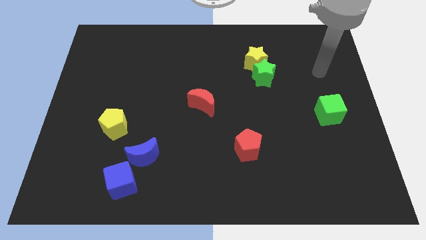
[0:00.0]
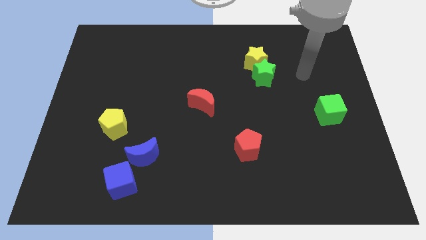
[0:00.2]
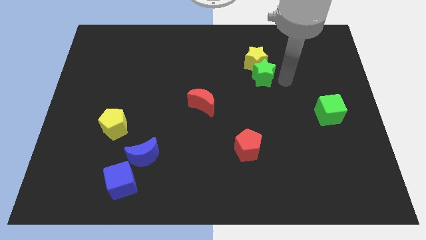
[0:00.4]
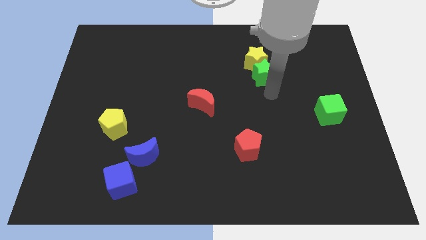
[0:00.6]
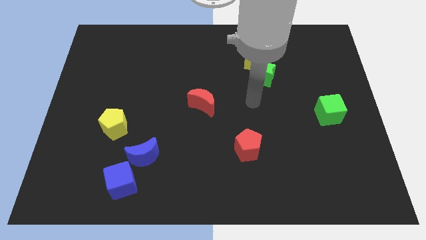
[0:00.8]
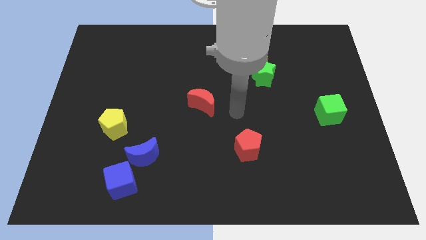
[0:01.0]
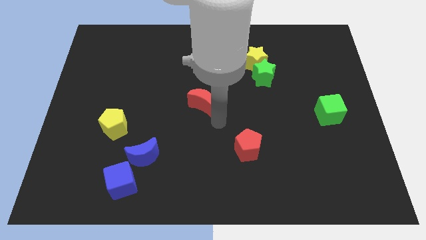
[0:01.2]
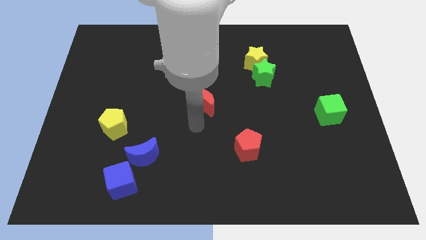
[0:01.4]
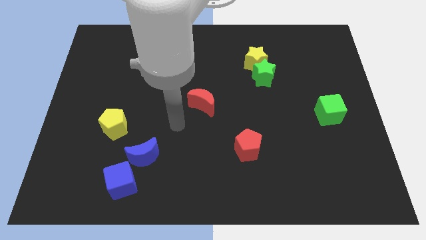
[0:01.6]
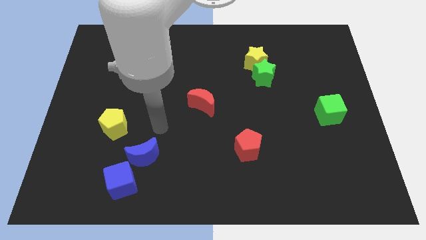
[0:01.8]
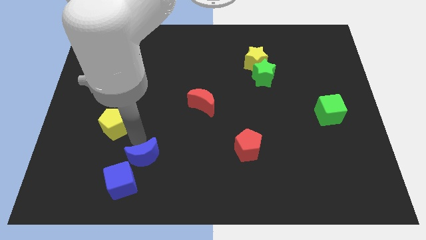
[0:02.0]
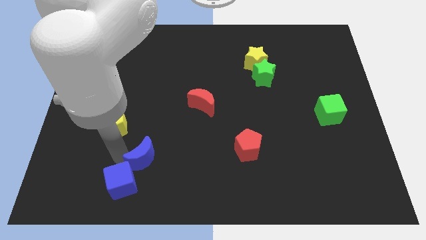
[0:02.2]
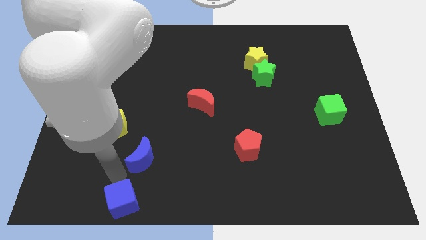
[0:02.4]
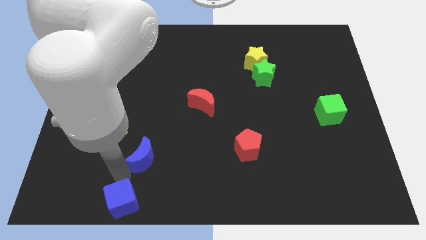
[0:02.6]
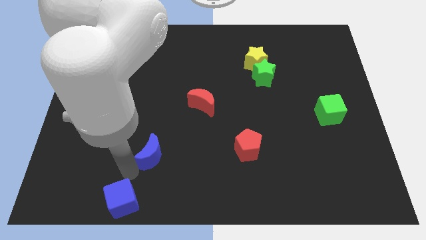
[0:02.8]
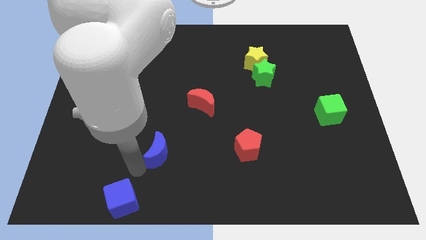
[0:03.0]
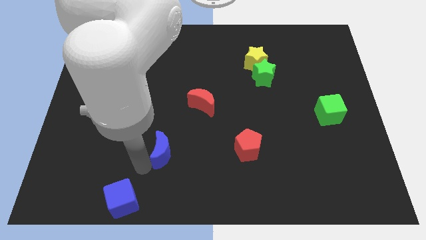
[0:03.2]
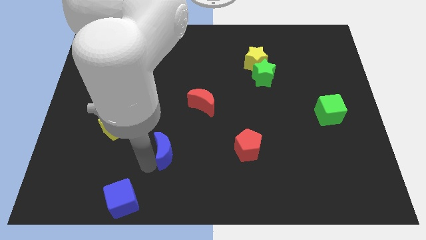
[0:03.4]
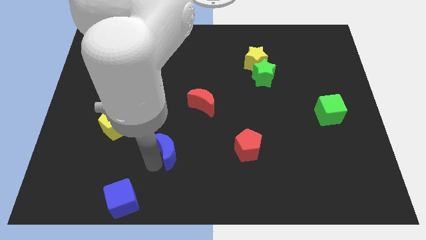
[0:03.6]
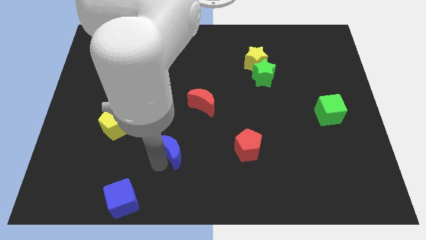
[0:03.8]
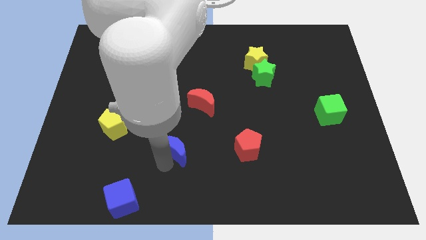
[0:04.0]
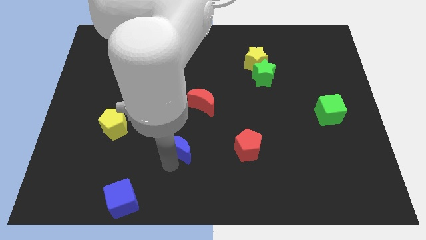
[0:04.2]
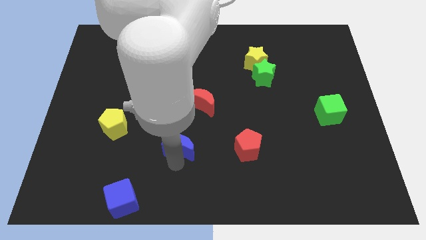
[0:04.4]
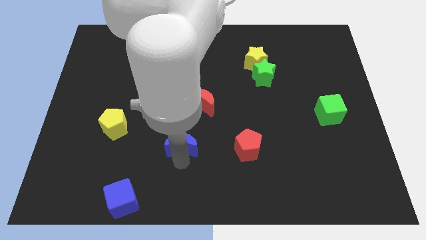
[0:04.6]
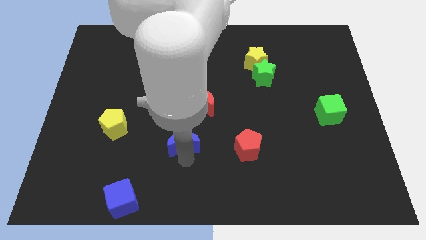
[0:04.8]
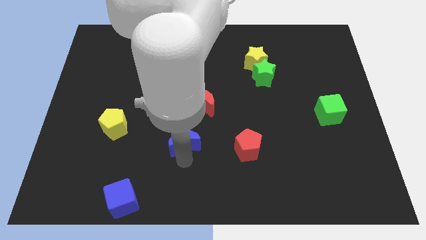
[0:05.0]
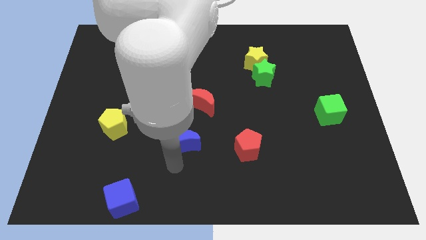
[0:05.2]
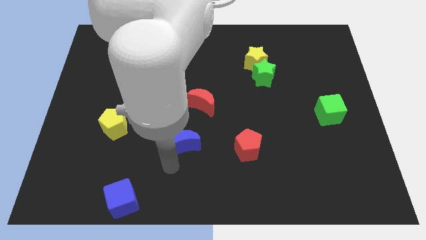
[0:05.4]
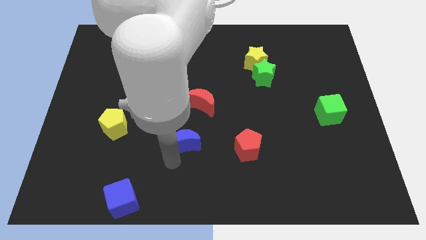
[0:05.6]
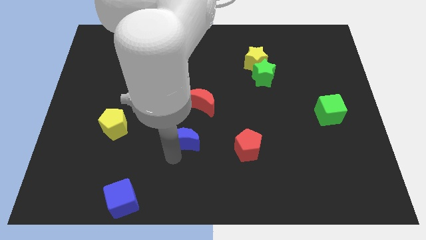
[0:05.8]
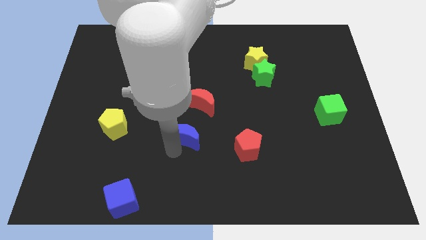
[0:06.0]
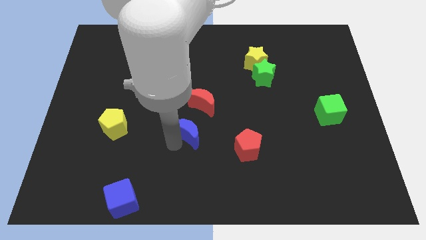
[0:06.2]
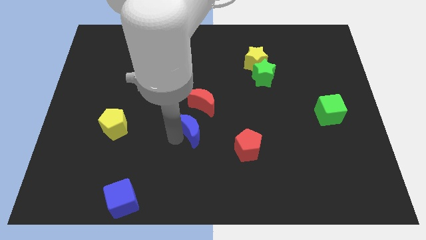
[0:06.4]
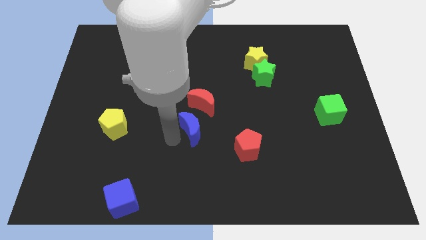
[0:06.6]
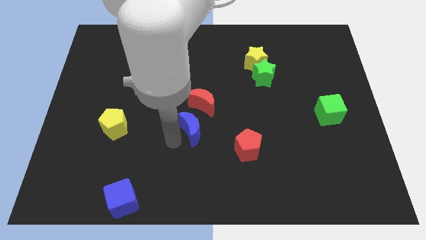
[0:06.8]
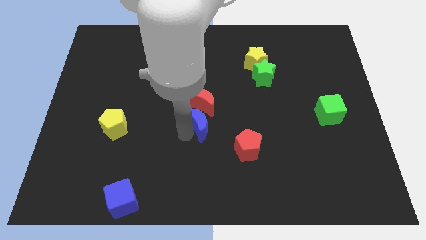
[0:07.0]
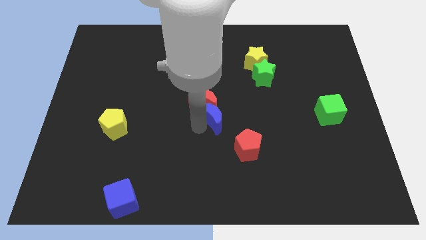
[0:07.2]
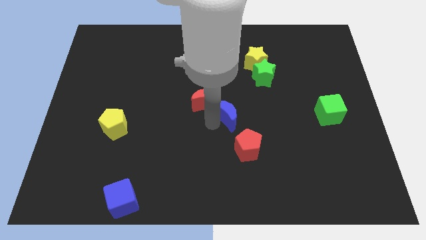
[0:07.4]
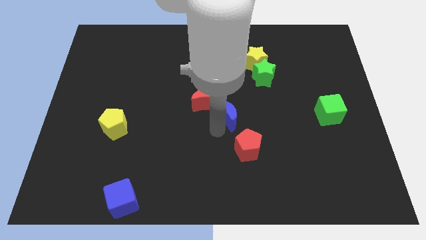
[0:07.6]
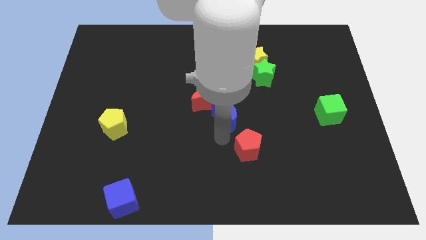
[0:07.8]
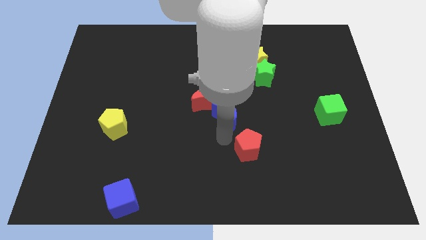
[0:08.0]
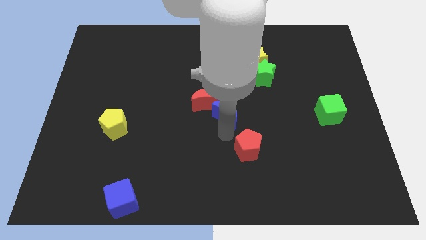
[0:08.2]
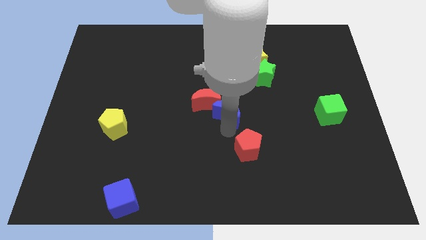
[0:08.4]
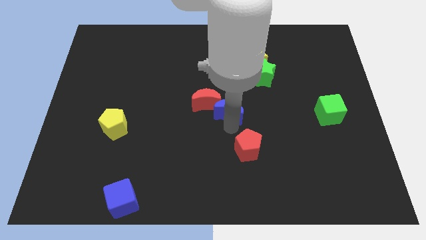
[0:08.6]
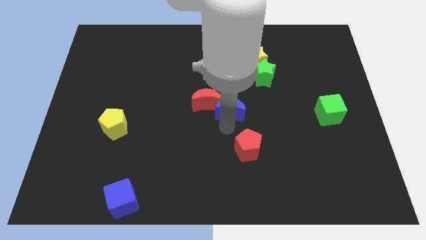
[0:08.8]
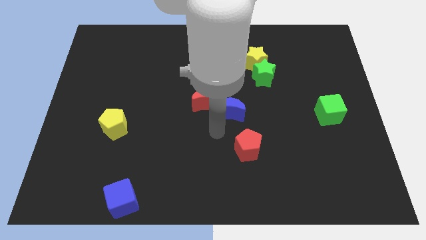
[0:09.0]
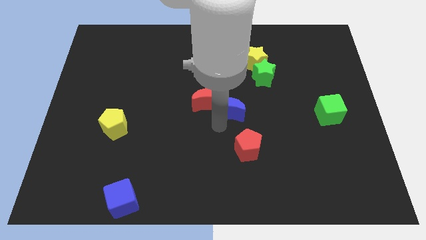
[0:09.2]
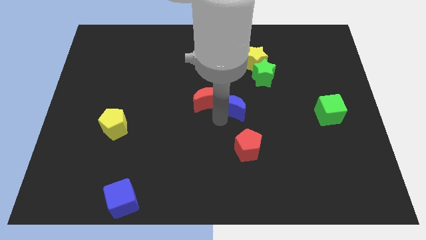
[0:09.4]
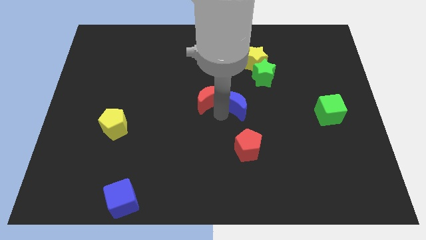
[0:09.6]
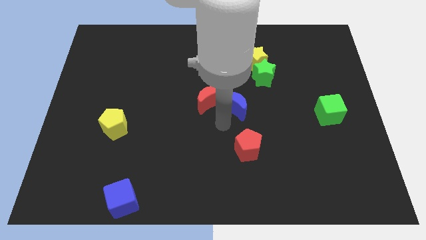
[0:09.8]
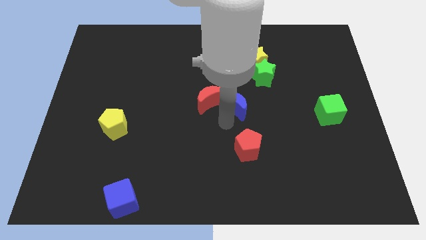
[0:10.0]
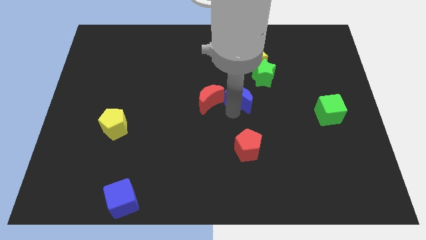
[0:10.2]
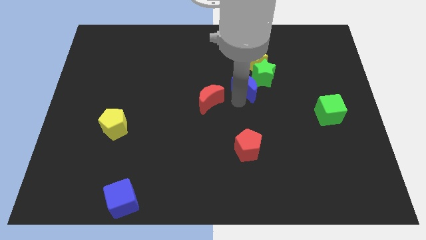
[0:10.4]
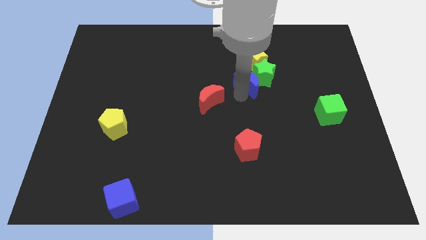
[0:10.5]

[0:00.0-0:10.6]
push the blue moon towards the green star

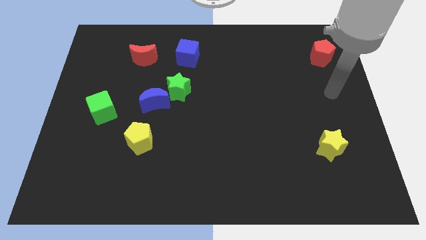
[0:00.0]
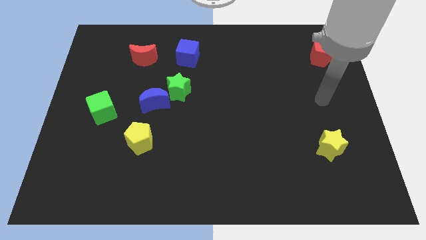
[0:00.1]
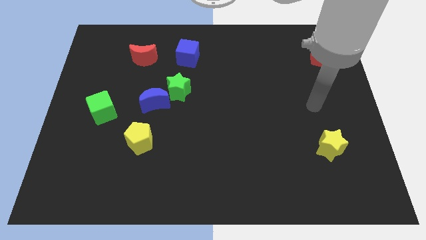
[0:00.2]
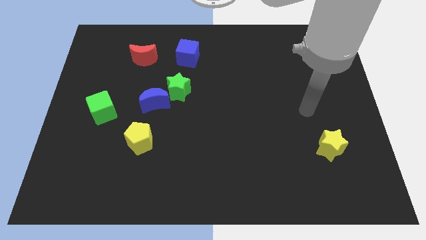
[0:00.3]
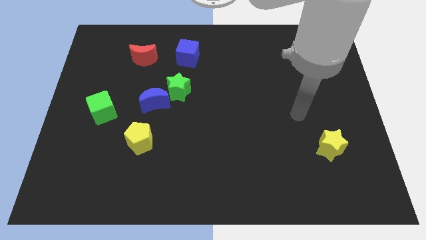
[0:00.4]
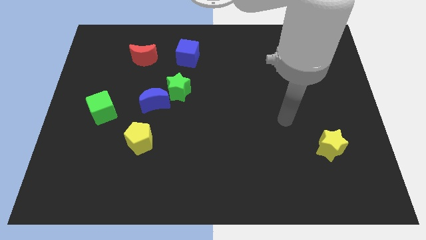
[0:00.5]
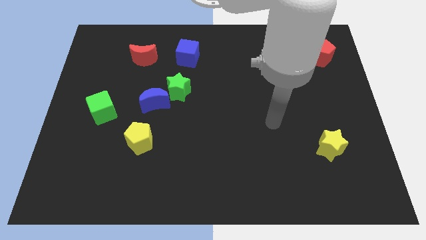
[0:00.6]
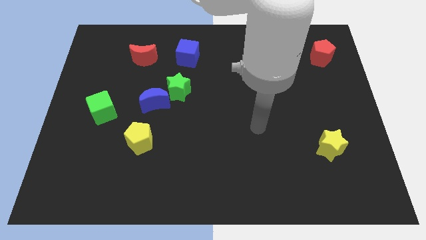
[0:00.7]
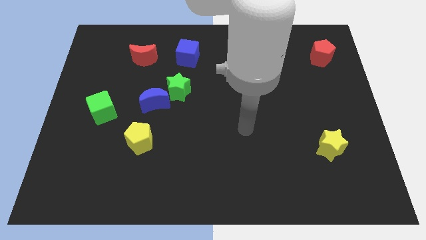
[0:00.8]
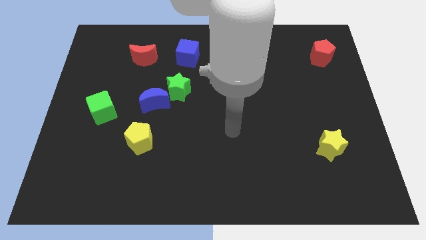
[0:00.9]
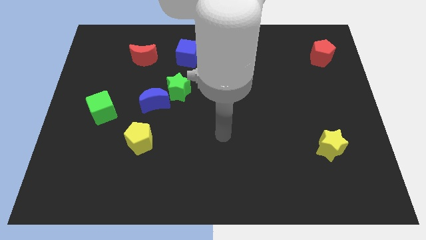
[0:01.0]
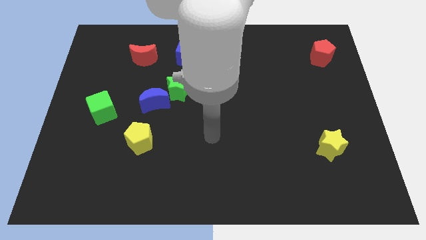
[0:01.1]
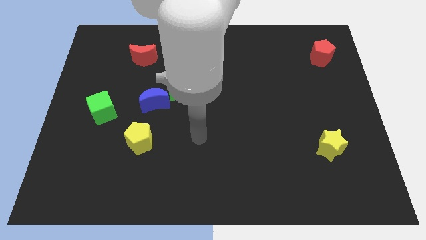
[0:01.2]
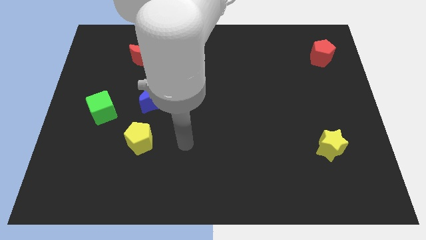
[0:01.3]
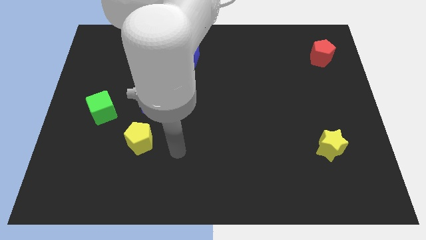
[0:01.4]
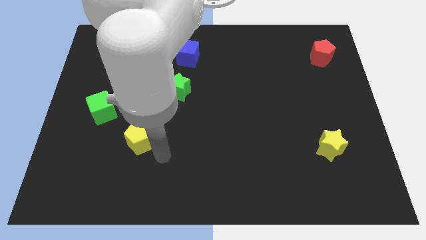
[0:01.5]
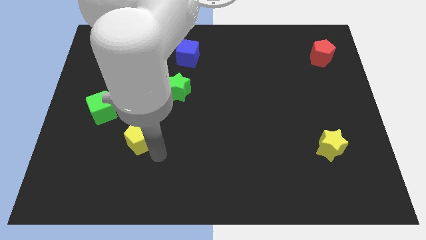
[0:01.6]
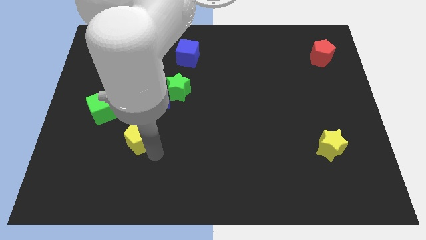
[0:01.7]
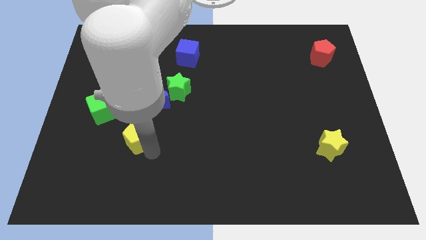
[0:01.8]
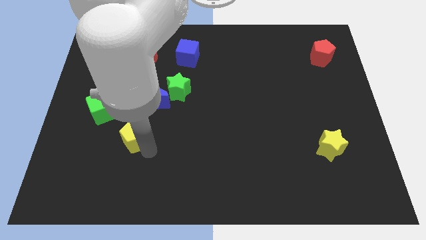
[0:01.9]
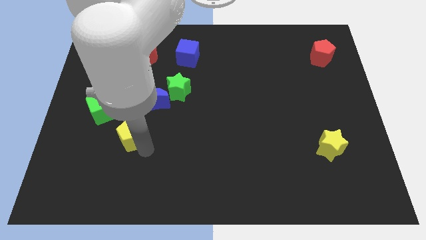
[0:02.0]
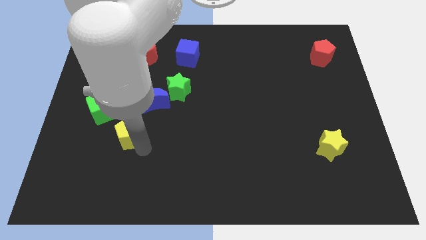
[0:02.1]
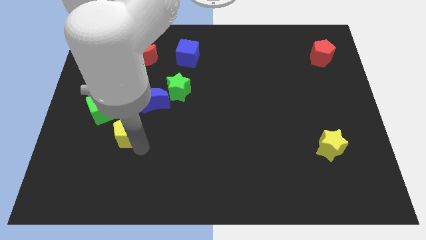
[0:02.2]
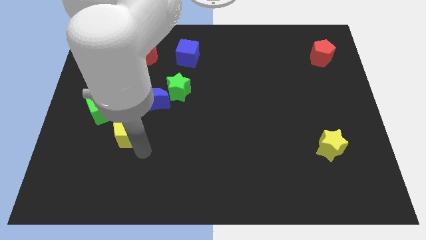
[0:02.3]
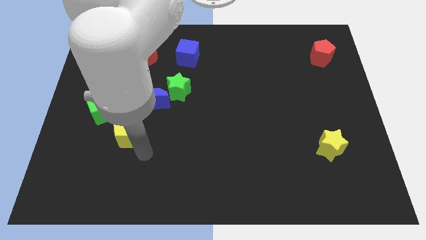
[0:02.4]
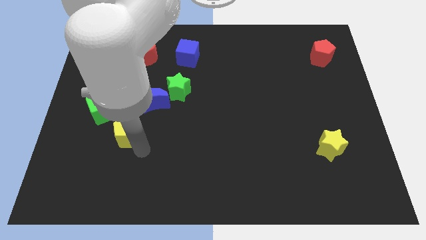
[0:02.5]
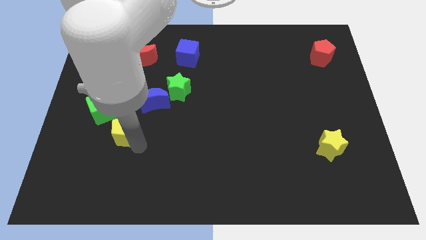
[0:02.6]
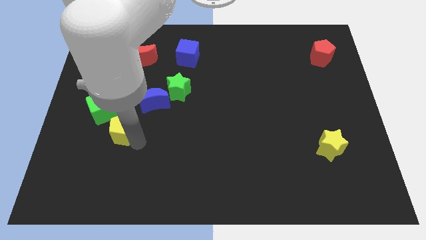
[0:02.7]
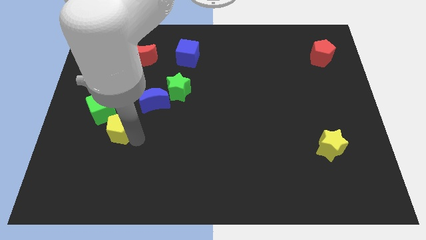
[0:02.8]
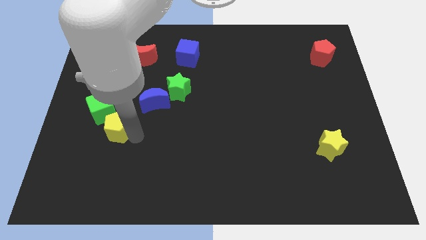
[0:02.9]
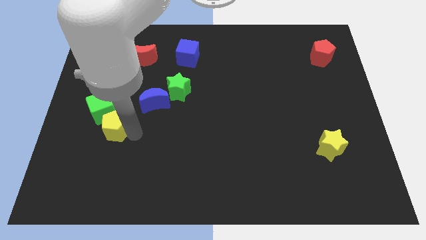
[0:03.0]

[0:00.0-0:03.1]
slide the yellow pentagon to the green cube
